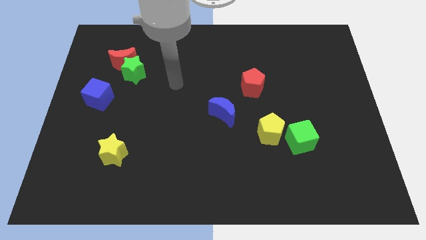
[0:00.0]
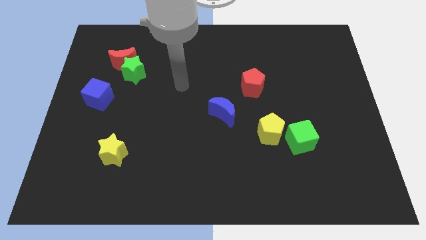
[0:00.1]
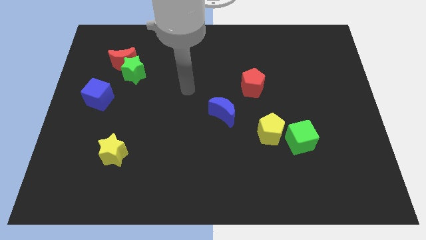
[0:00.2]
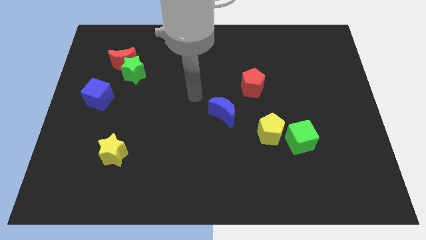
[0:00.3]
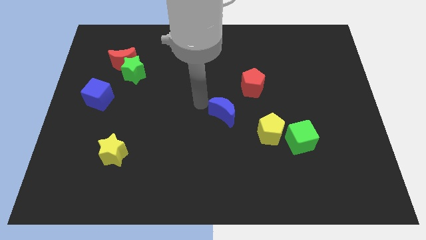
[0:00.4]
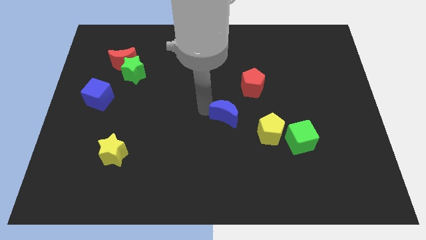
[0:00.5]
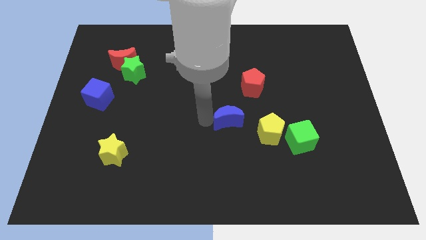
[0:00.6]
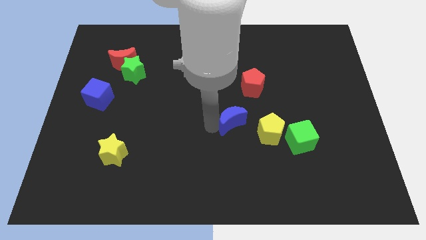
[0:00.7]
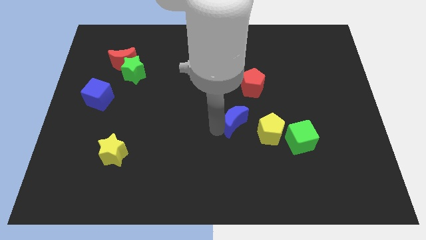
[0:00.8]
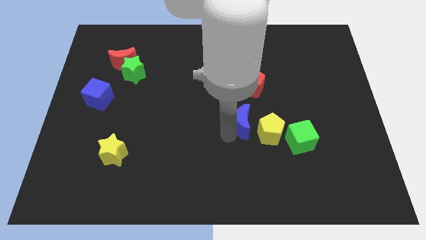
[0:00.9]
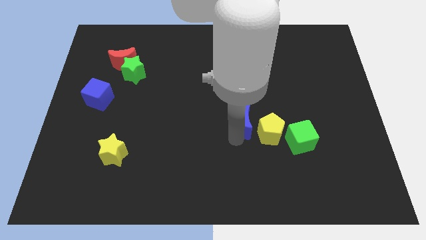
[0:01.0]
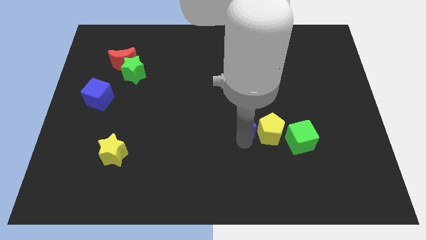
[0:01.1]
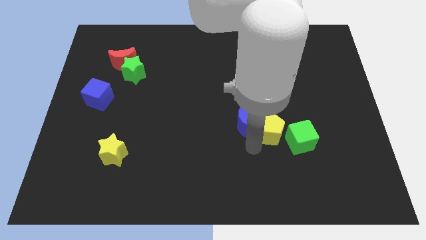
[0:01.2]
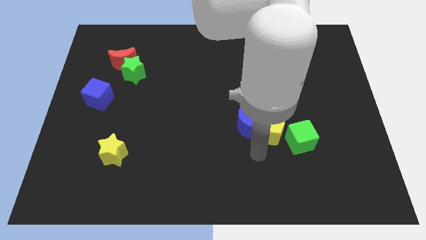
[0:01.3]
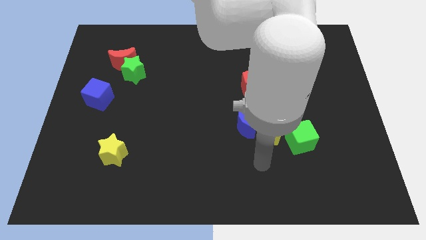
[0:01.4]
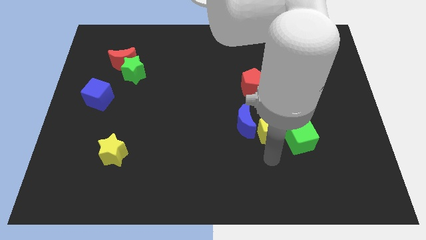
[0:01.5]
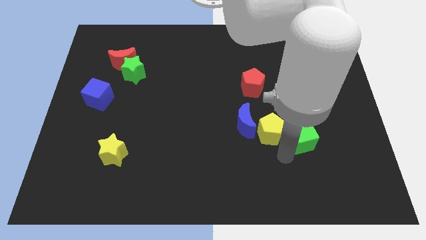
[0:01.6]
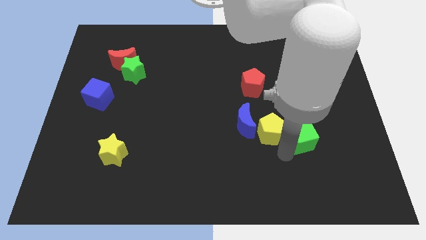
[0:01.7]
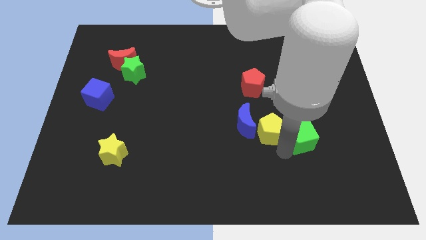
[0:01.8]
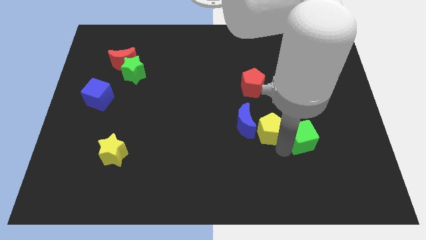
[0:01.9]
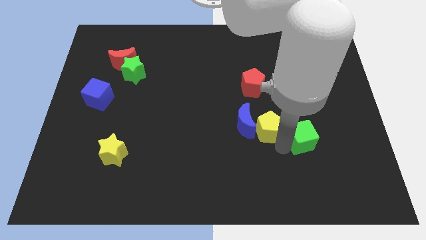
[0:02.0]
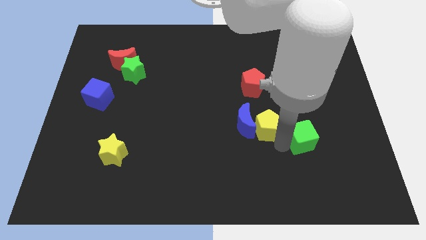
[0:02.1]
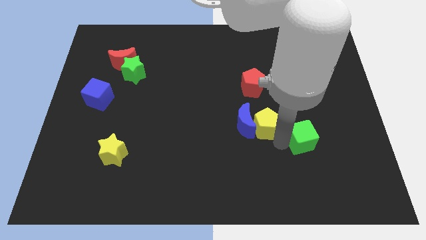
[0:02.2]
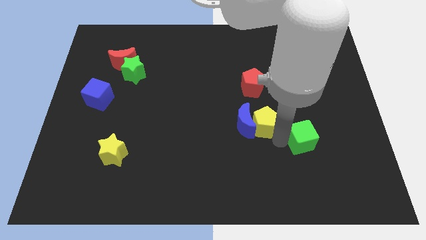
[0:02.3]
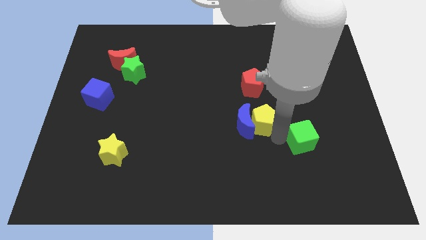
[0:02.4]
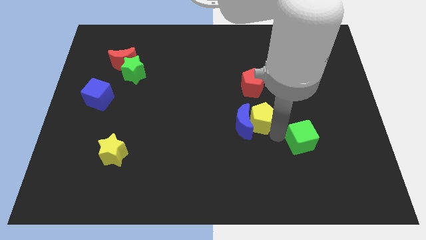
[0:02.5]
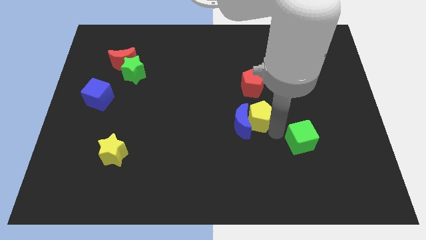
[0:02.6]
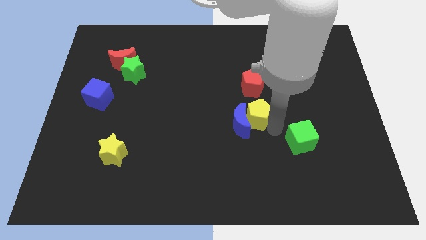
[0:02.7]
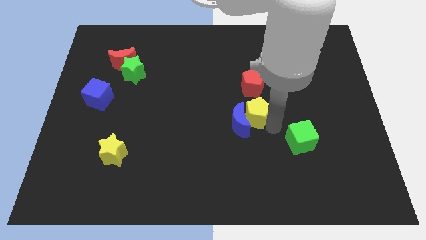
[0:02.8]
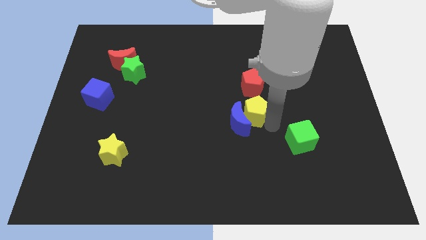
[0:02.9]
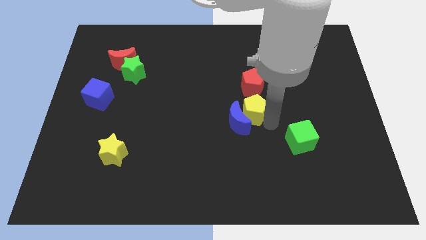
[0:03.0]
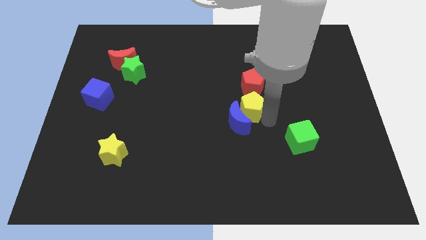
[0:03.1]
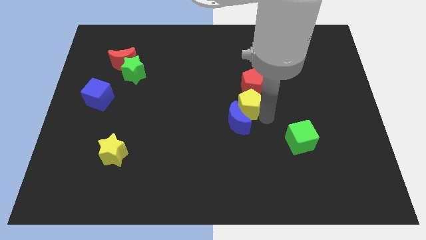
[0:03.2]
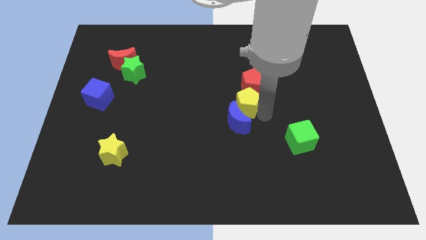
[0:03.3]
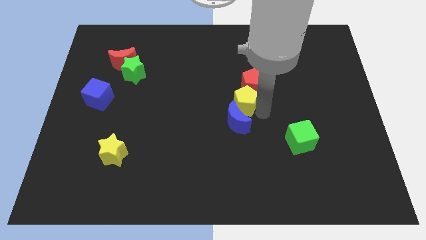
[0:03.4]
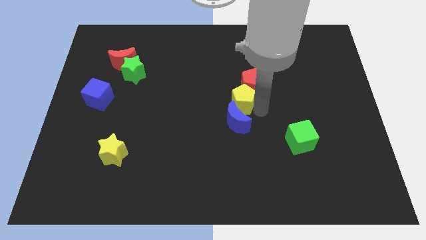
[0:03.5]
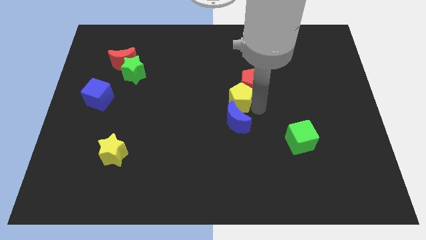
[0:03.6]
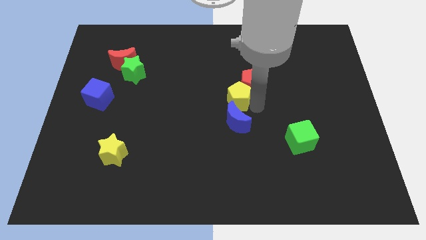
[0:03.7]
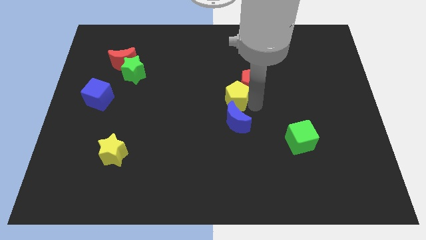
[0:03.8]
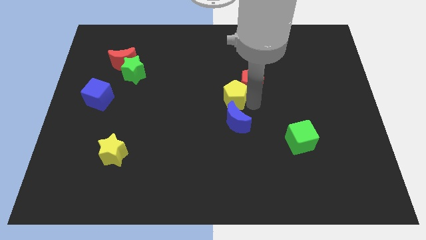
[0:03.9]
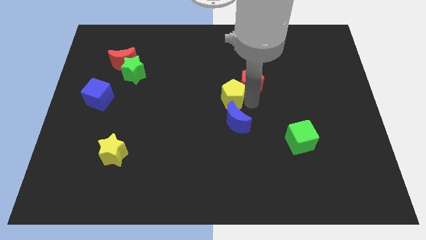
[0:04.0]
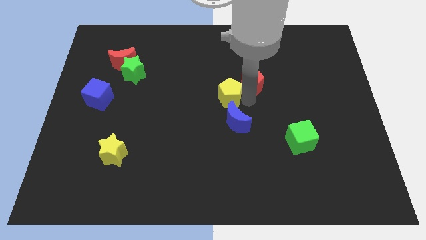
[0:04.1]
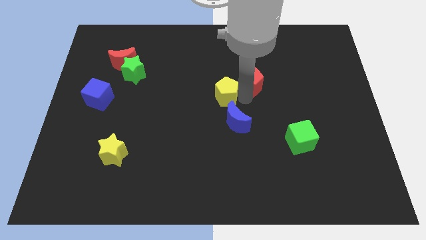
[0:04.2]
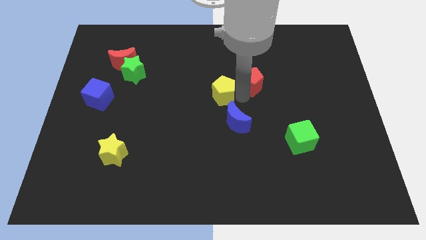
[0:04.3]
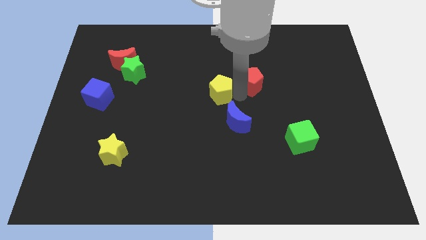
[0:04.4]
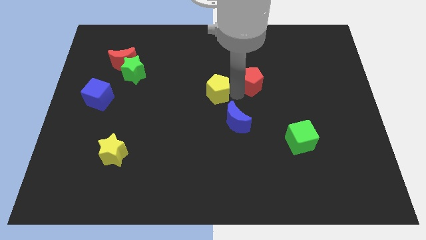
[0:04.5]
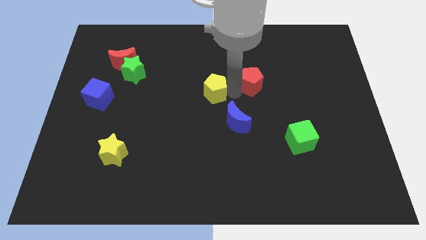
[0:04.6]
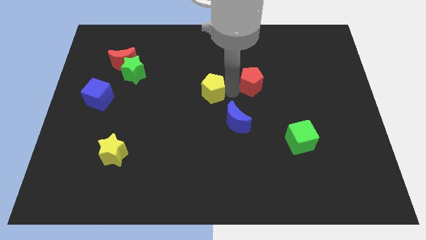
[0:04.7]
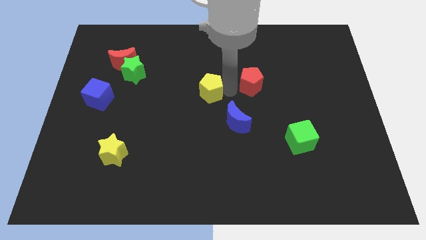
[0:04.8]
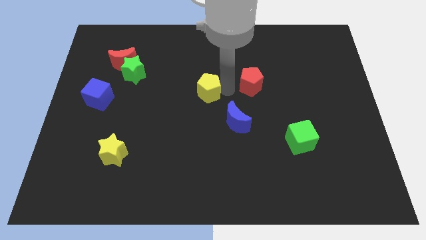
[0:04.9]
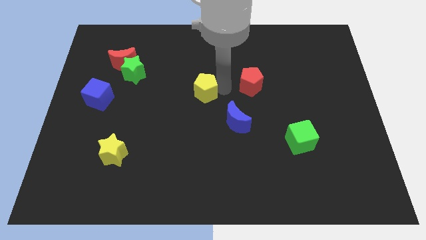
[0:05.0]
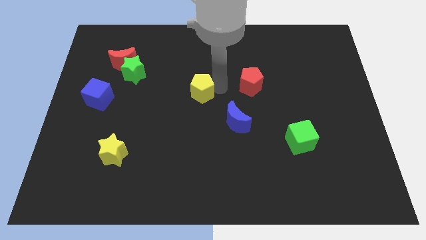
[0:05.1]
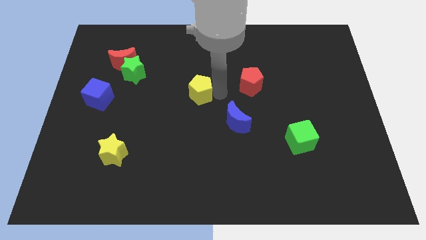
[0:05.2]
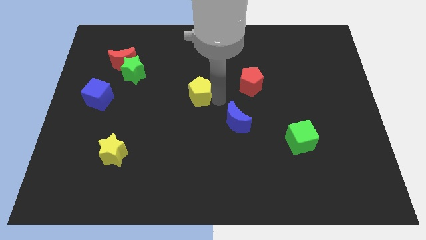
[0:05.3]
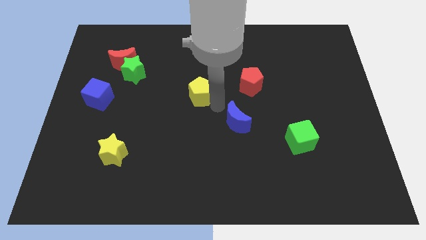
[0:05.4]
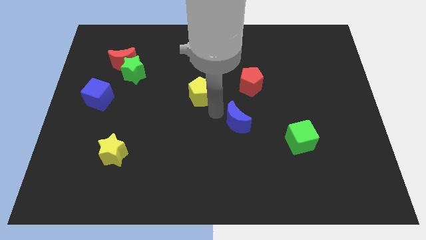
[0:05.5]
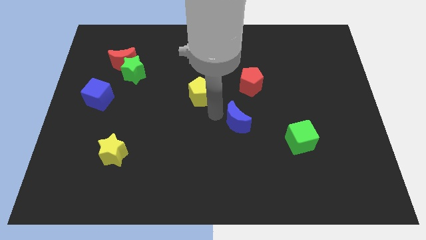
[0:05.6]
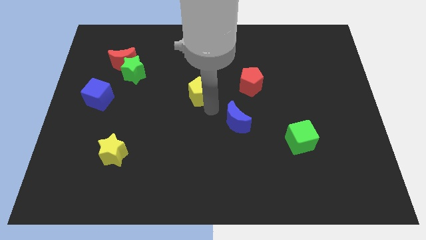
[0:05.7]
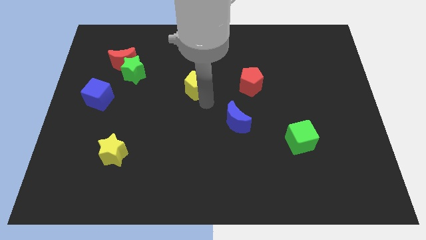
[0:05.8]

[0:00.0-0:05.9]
push the yellow pentagon diagonally upwards and to the left

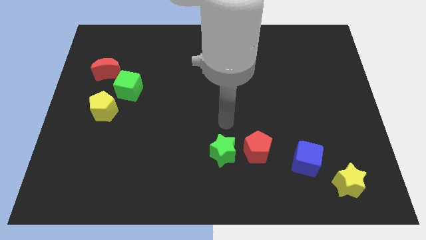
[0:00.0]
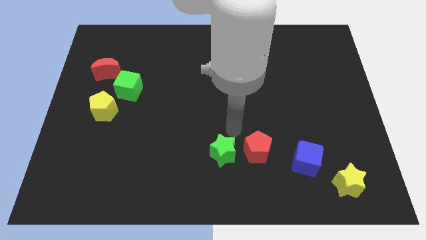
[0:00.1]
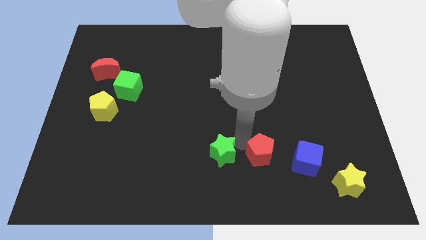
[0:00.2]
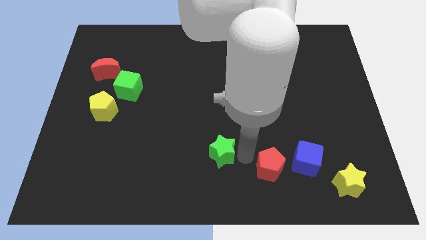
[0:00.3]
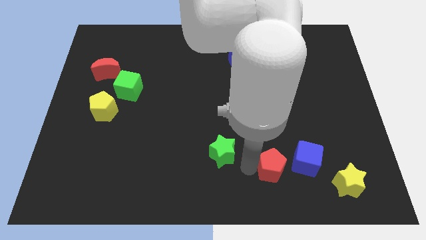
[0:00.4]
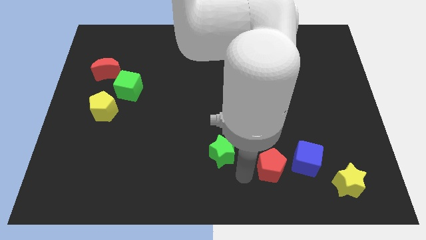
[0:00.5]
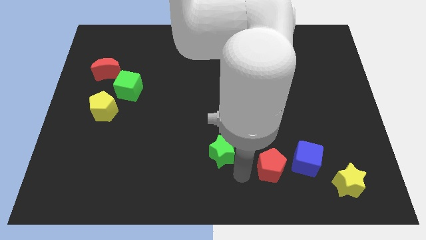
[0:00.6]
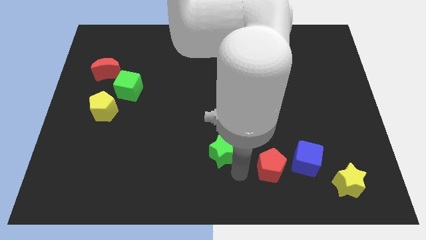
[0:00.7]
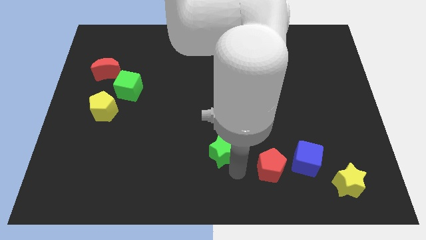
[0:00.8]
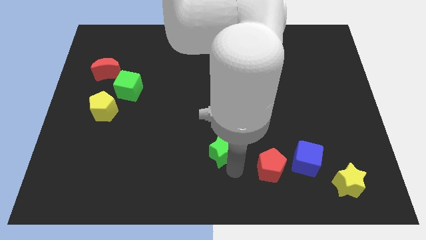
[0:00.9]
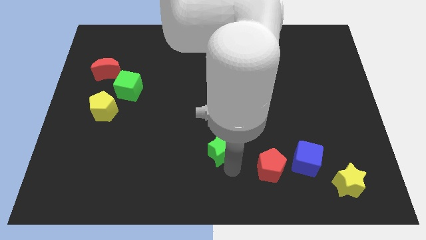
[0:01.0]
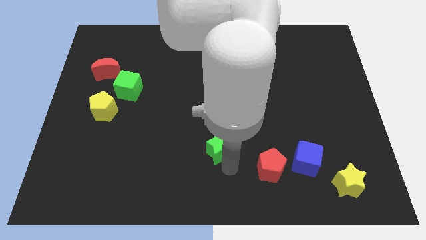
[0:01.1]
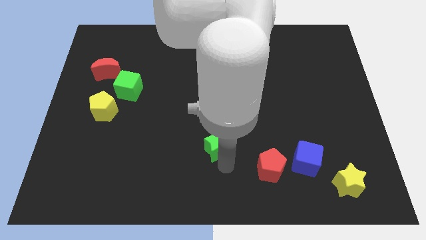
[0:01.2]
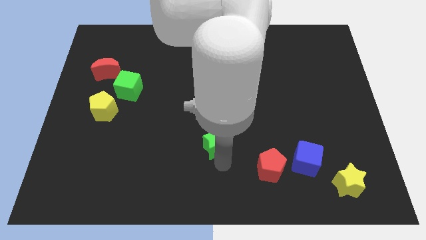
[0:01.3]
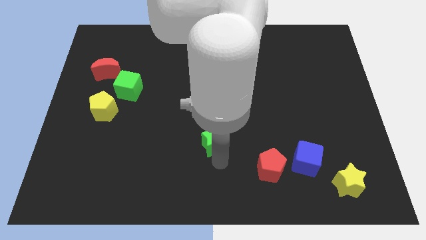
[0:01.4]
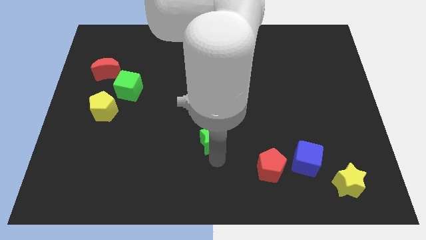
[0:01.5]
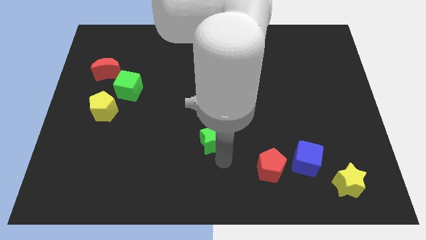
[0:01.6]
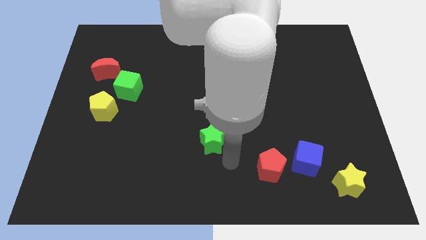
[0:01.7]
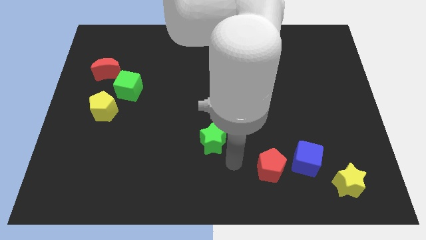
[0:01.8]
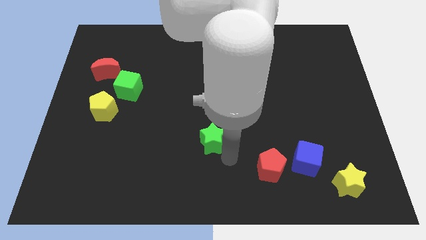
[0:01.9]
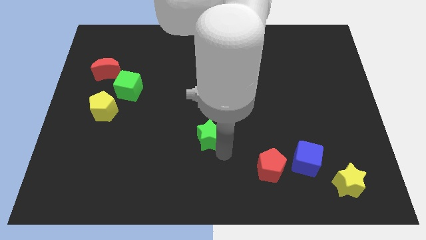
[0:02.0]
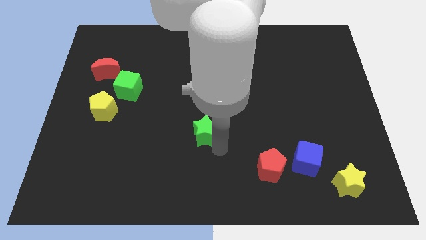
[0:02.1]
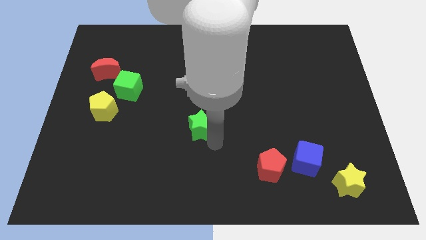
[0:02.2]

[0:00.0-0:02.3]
slightly push the green star up and left

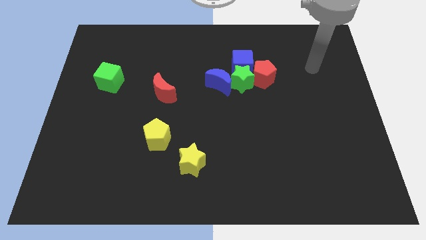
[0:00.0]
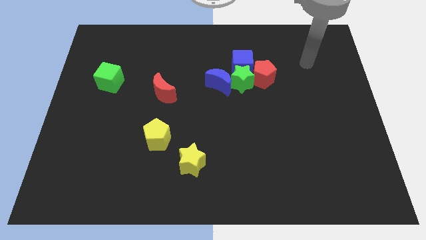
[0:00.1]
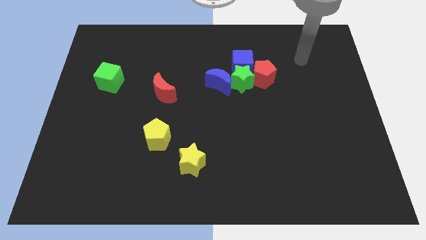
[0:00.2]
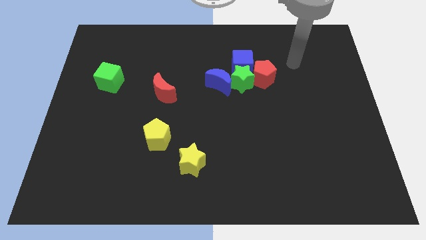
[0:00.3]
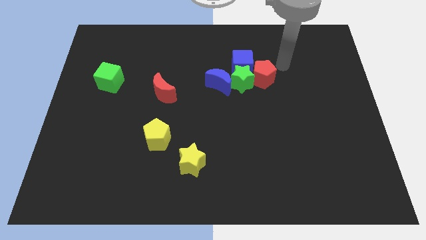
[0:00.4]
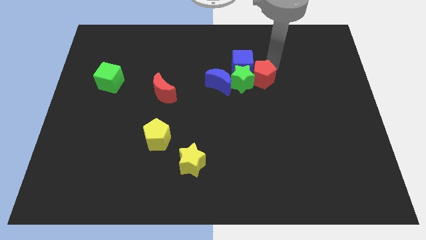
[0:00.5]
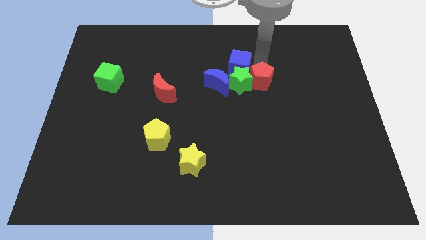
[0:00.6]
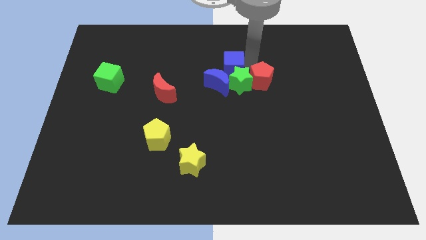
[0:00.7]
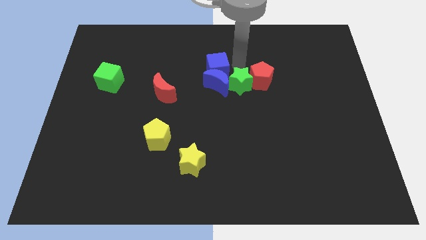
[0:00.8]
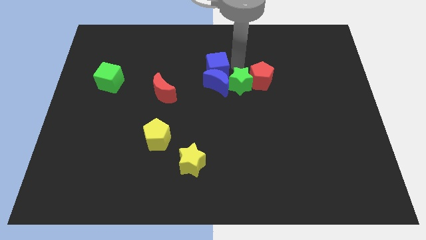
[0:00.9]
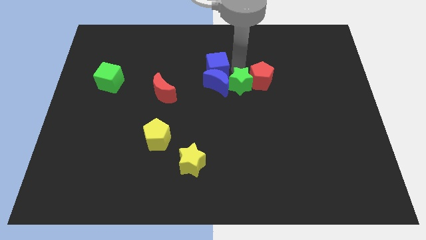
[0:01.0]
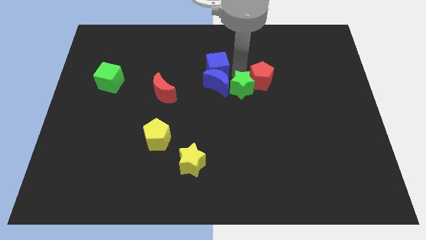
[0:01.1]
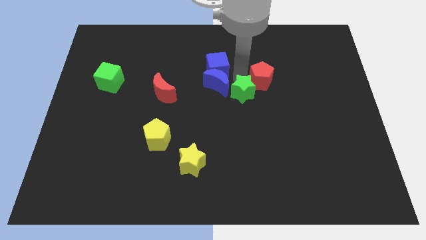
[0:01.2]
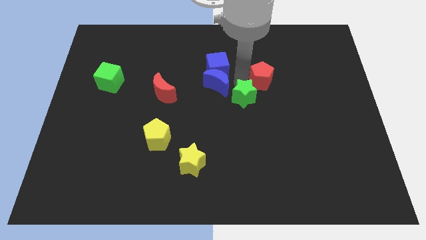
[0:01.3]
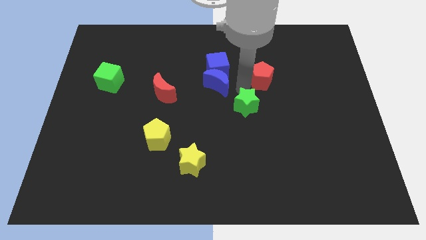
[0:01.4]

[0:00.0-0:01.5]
move the green star a little downwards
